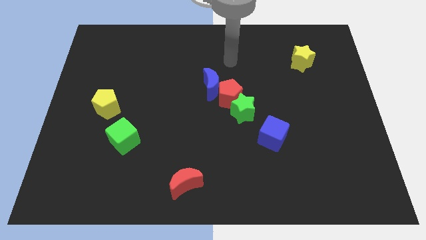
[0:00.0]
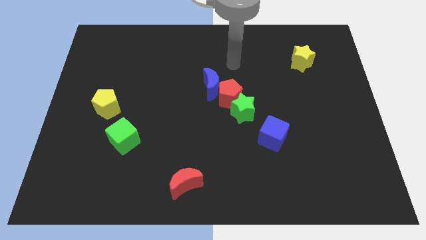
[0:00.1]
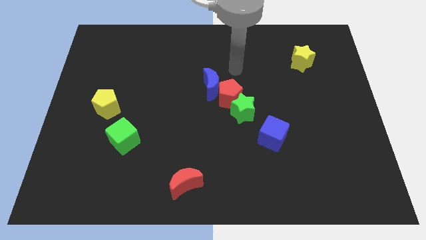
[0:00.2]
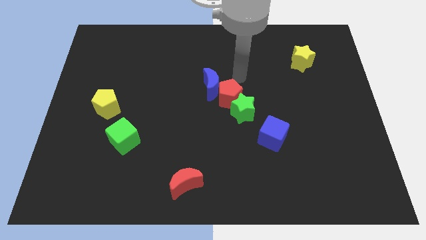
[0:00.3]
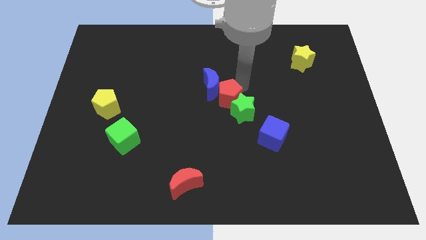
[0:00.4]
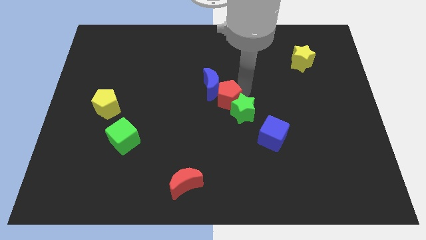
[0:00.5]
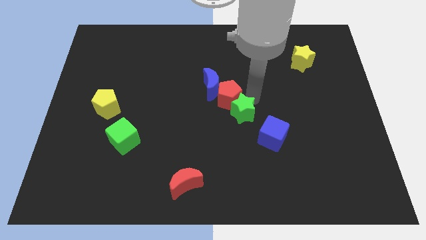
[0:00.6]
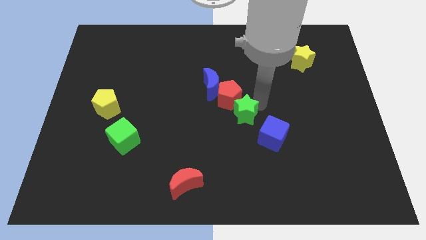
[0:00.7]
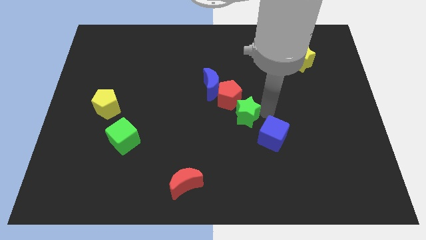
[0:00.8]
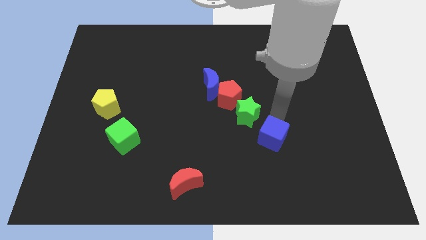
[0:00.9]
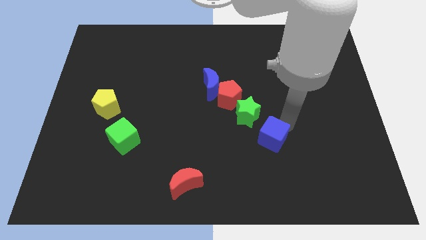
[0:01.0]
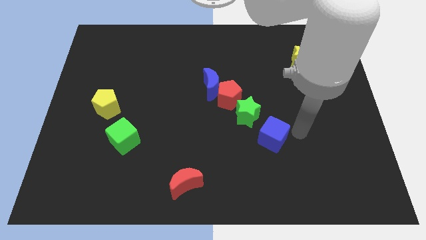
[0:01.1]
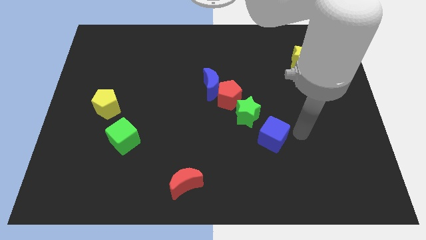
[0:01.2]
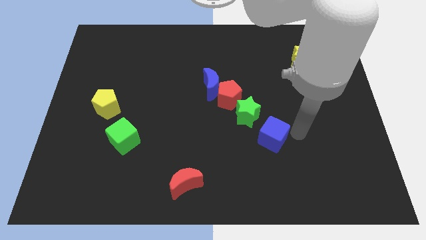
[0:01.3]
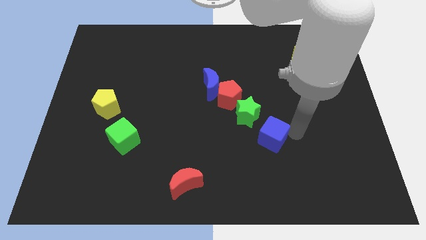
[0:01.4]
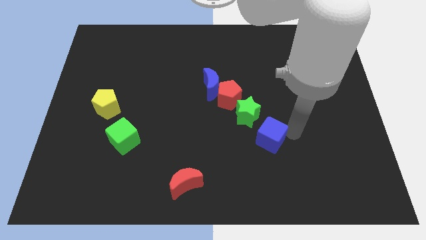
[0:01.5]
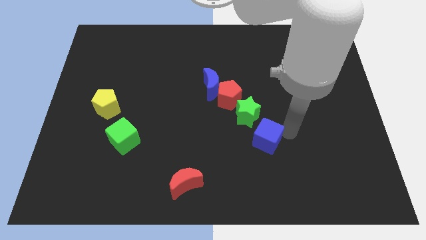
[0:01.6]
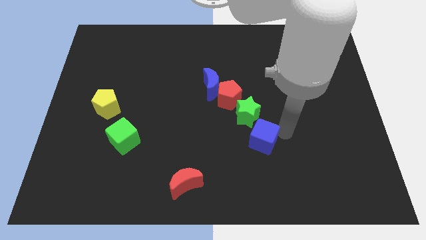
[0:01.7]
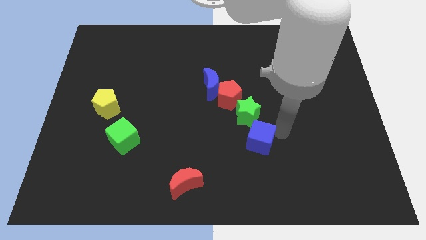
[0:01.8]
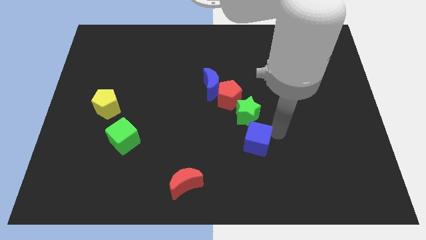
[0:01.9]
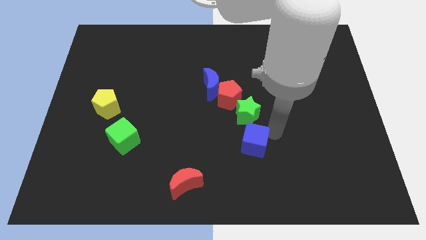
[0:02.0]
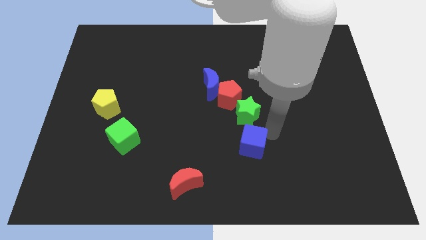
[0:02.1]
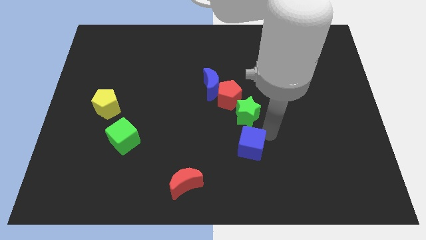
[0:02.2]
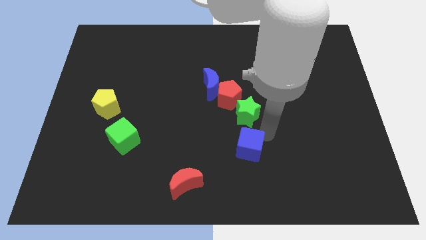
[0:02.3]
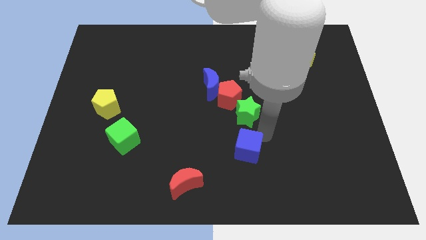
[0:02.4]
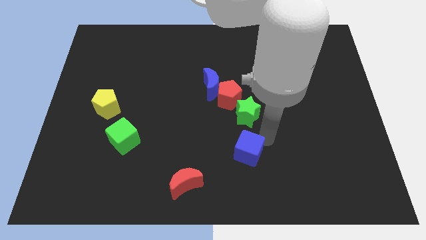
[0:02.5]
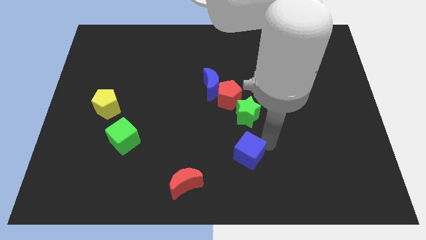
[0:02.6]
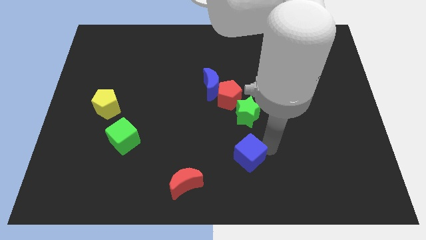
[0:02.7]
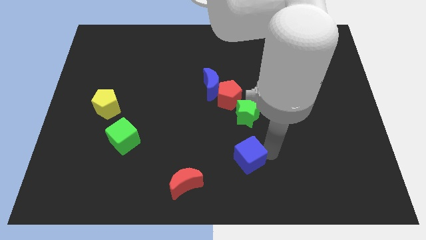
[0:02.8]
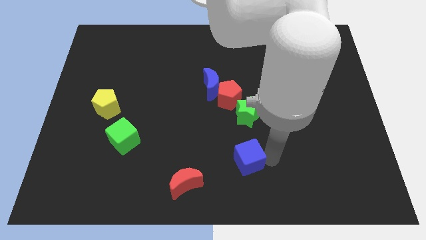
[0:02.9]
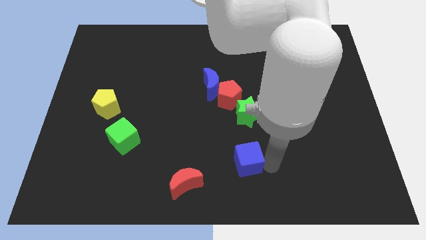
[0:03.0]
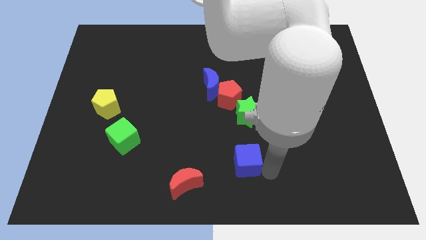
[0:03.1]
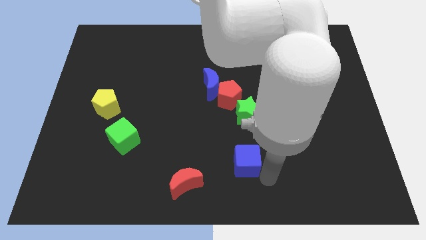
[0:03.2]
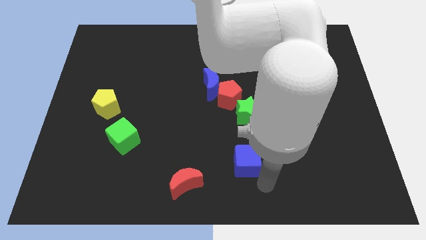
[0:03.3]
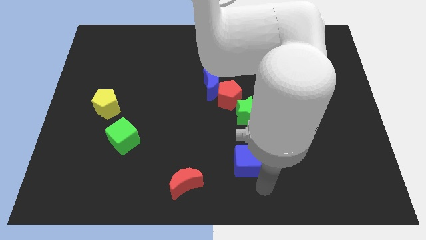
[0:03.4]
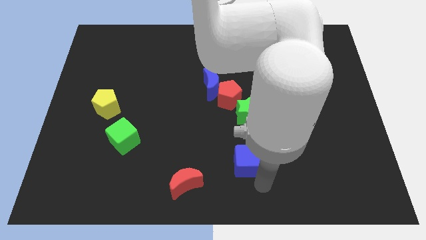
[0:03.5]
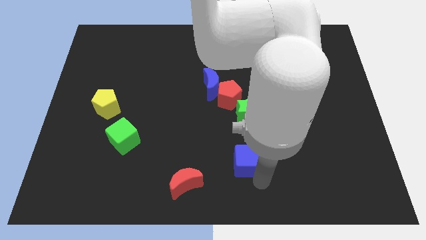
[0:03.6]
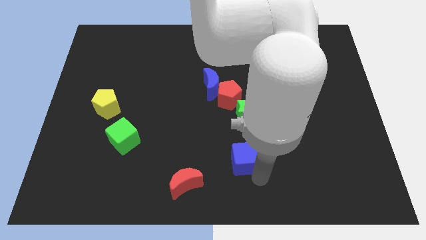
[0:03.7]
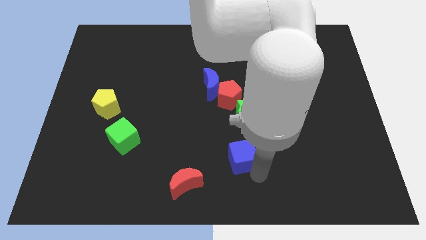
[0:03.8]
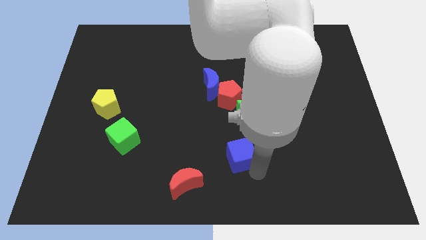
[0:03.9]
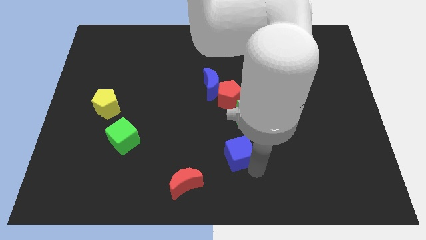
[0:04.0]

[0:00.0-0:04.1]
slightly push the blue cube left

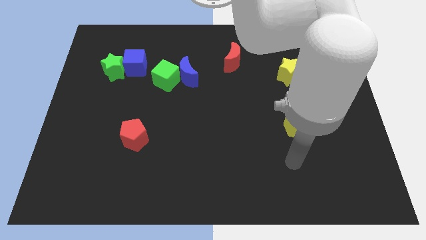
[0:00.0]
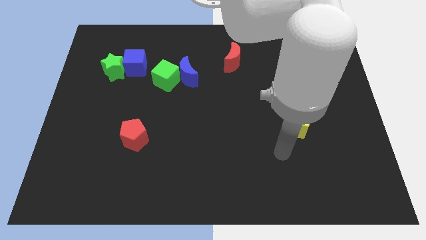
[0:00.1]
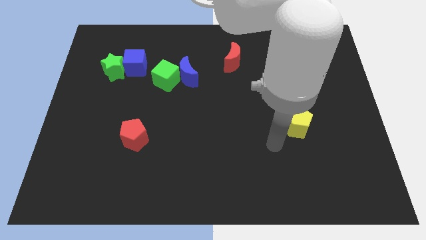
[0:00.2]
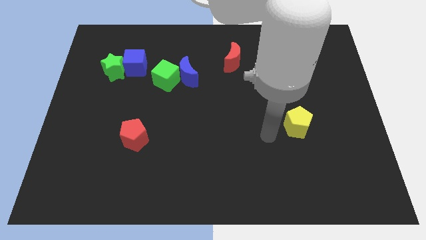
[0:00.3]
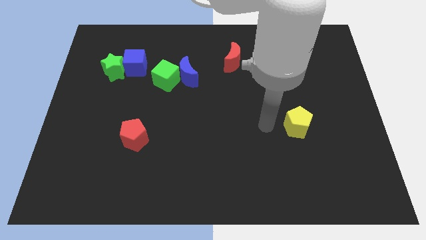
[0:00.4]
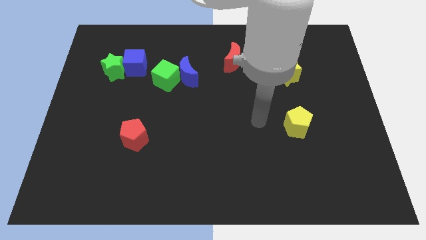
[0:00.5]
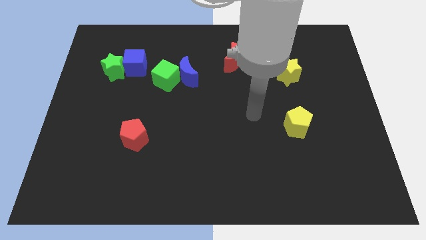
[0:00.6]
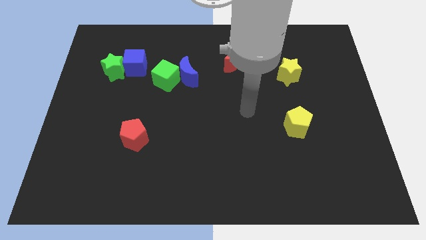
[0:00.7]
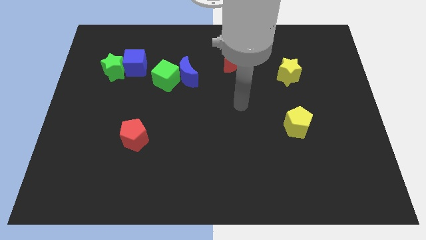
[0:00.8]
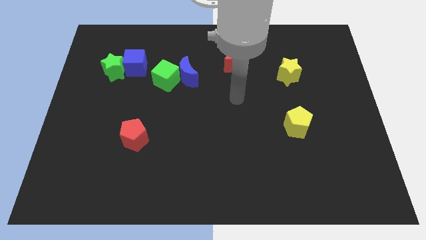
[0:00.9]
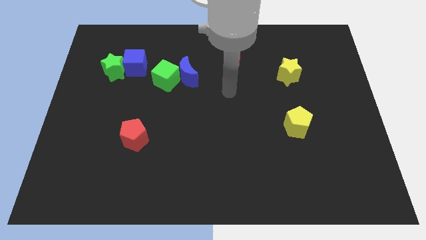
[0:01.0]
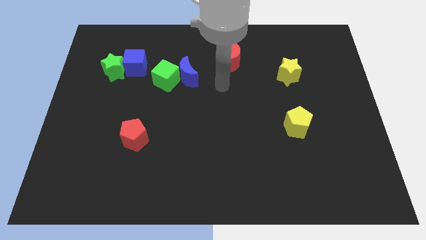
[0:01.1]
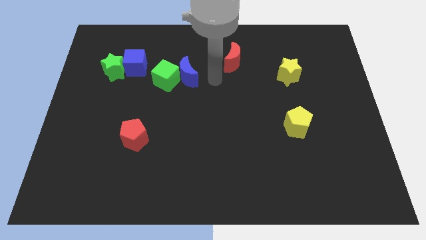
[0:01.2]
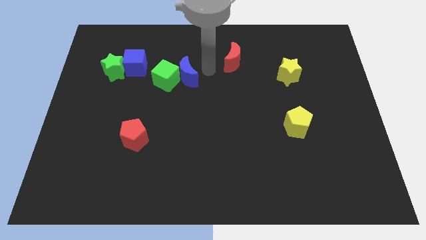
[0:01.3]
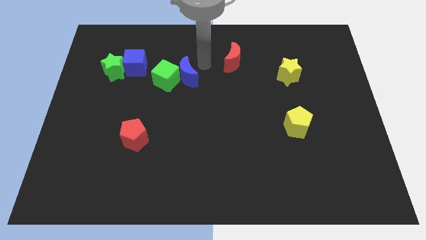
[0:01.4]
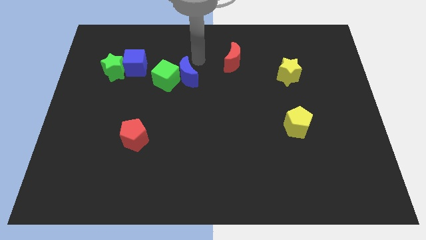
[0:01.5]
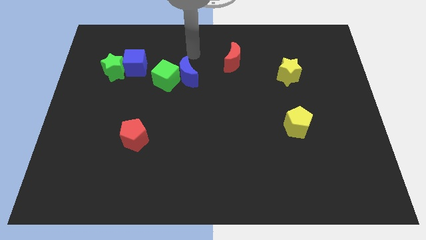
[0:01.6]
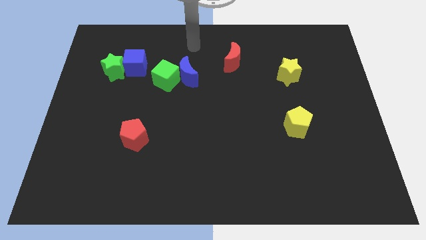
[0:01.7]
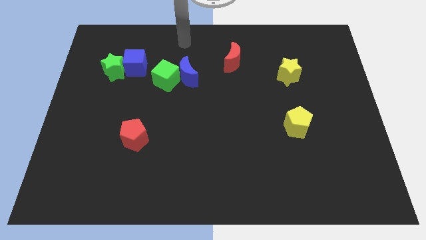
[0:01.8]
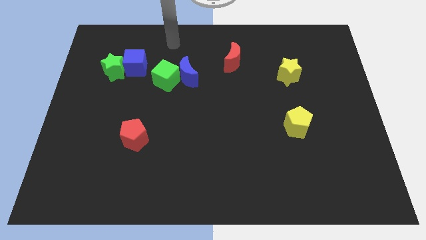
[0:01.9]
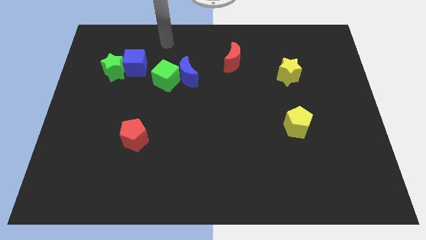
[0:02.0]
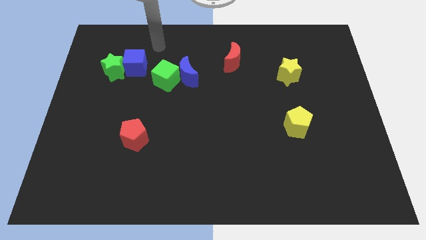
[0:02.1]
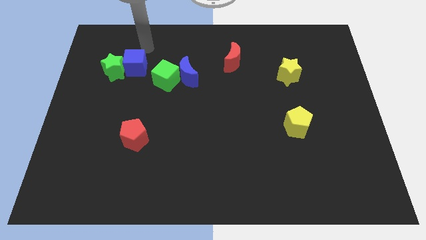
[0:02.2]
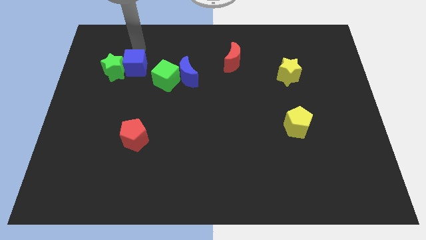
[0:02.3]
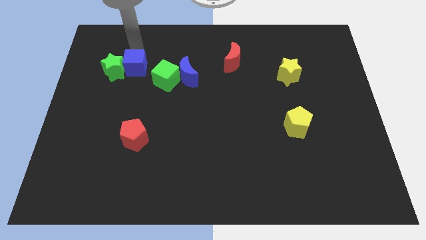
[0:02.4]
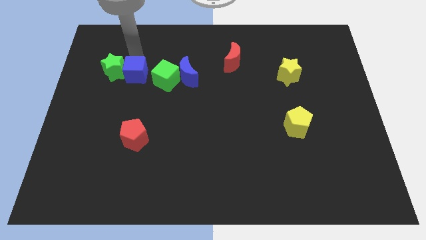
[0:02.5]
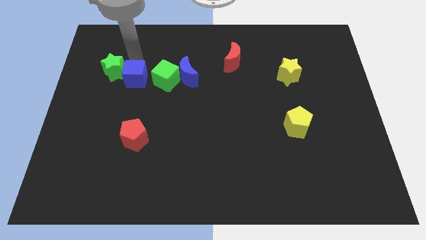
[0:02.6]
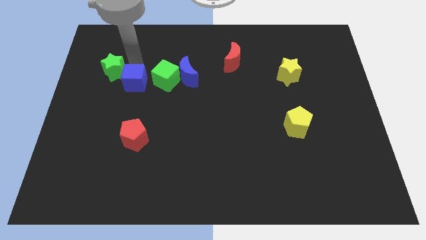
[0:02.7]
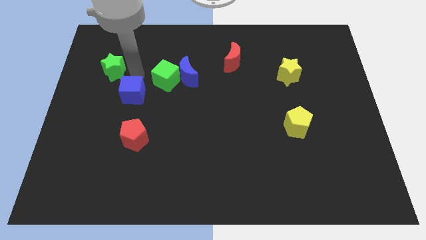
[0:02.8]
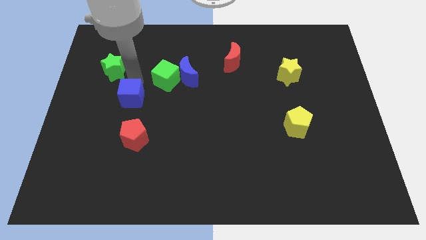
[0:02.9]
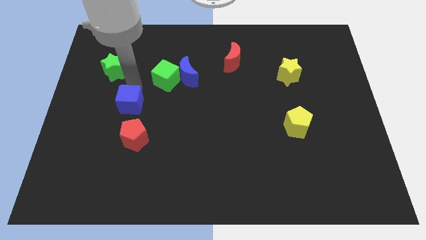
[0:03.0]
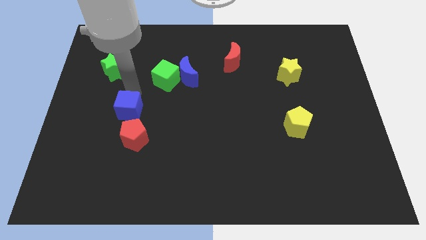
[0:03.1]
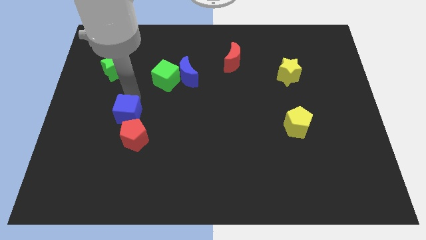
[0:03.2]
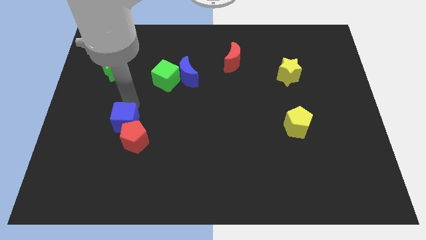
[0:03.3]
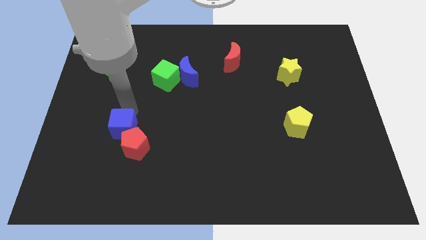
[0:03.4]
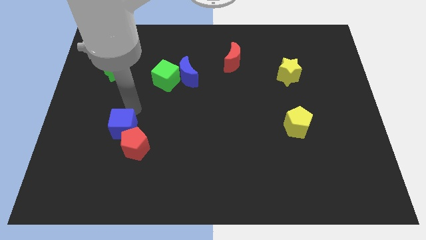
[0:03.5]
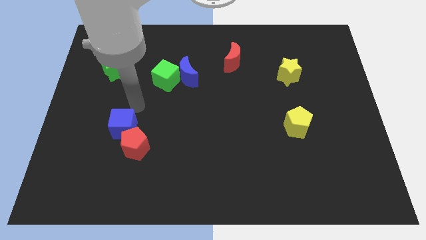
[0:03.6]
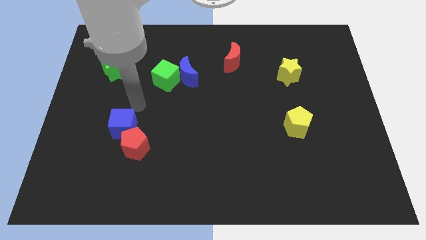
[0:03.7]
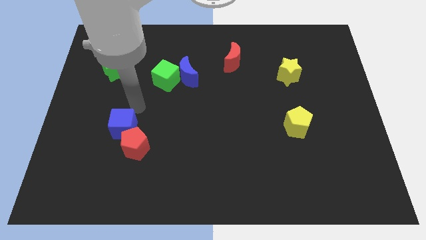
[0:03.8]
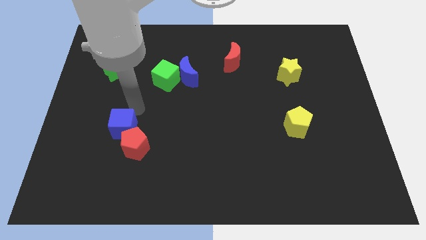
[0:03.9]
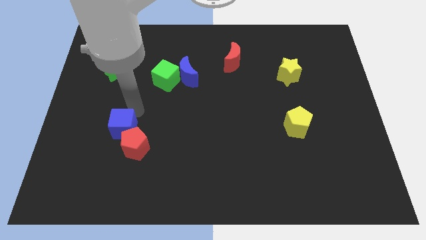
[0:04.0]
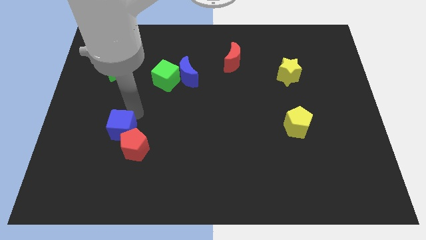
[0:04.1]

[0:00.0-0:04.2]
push the blue cube down
